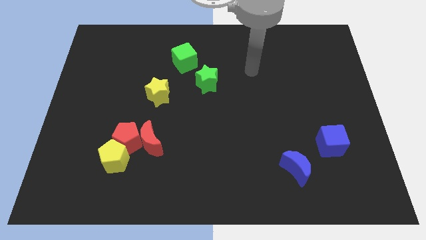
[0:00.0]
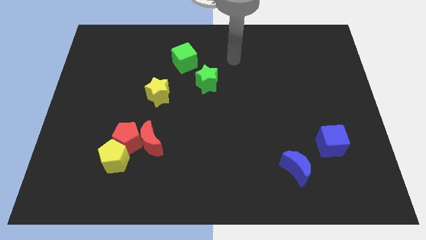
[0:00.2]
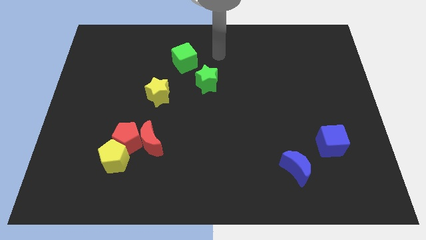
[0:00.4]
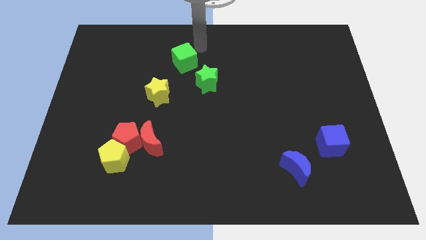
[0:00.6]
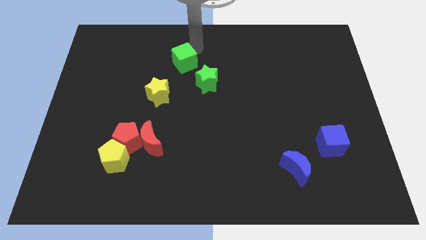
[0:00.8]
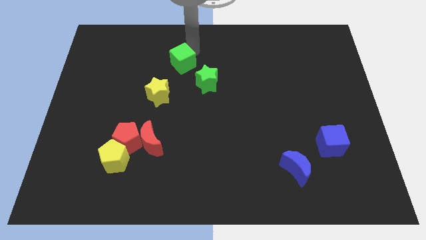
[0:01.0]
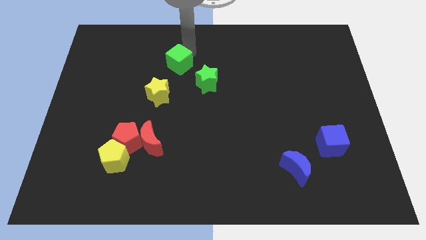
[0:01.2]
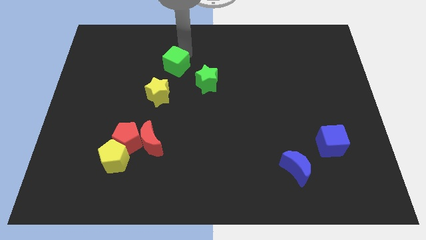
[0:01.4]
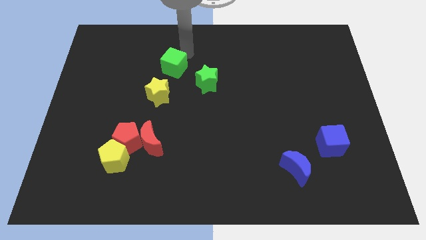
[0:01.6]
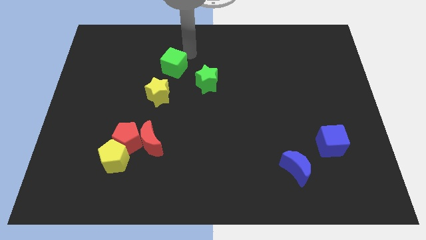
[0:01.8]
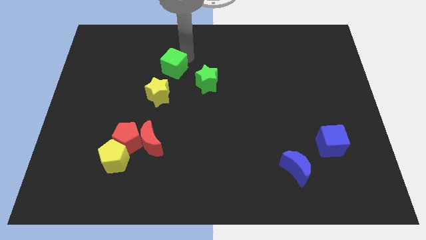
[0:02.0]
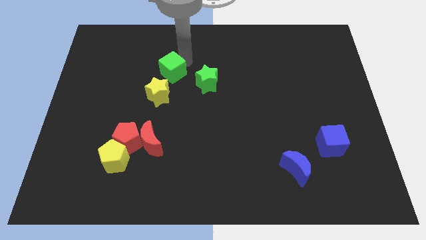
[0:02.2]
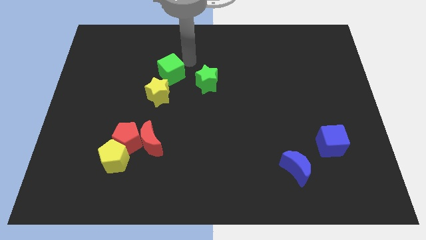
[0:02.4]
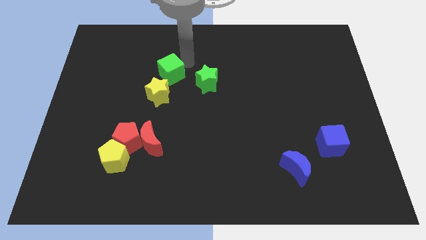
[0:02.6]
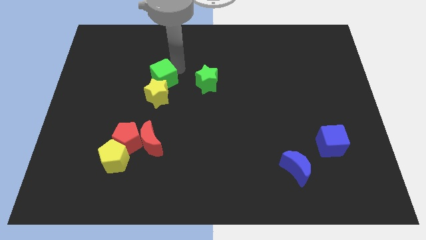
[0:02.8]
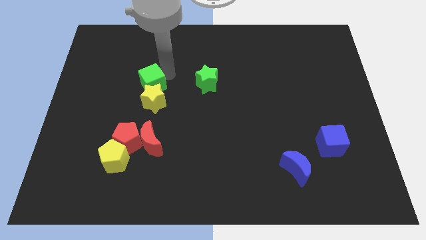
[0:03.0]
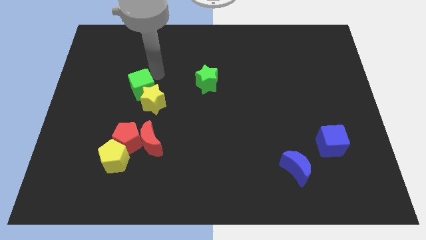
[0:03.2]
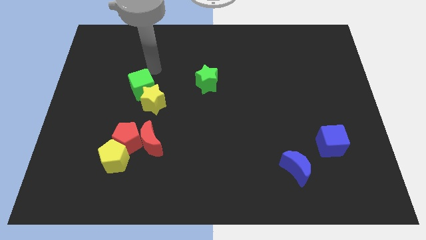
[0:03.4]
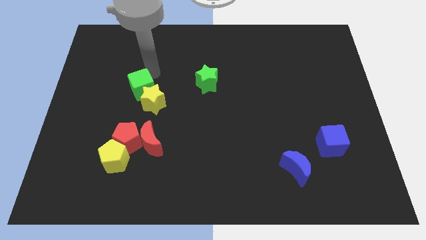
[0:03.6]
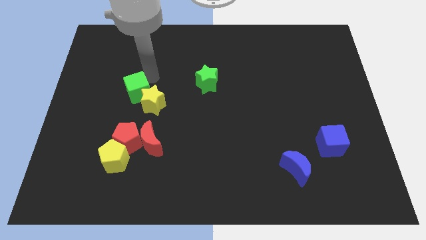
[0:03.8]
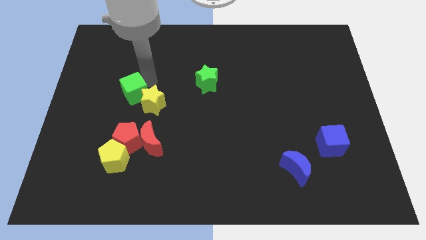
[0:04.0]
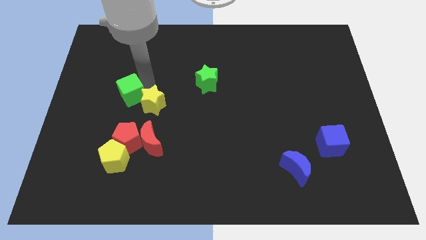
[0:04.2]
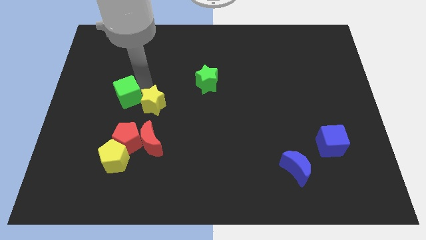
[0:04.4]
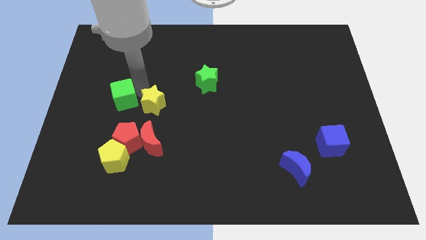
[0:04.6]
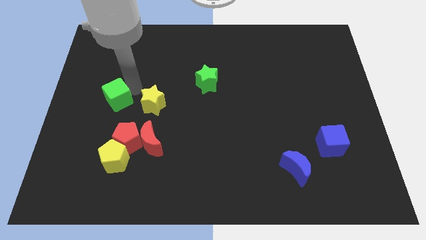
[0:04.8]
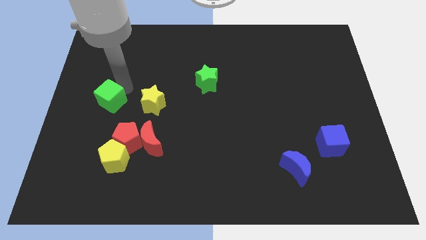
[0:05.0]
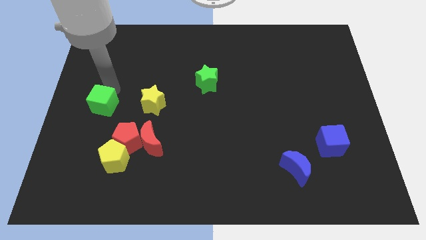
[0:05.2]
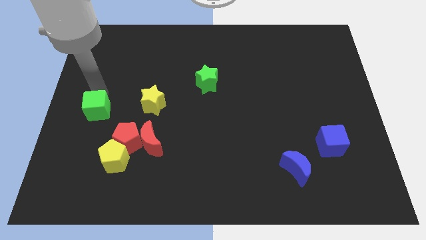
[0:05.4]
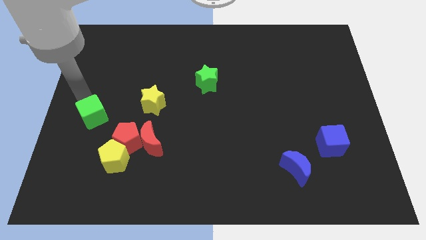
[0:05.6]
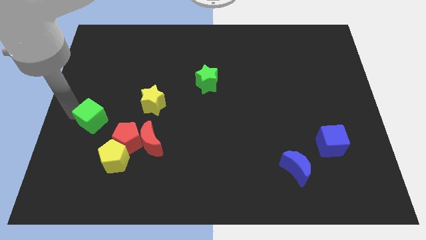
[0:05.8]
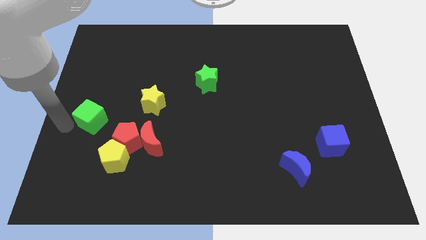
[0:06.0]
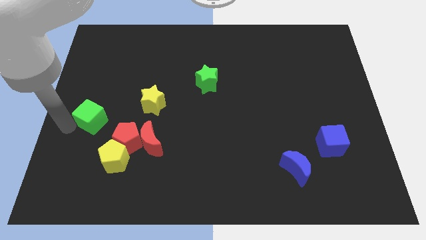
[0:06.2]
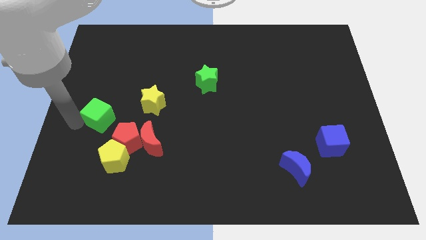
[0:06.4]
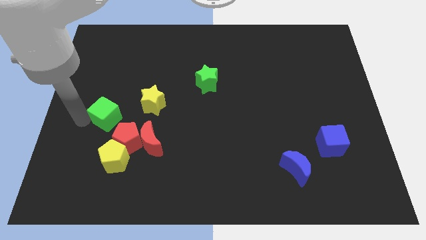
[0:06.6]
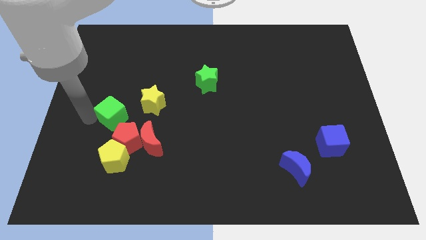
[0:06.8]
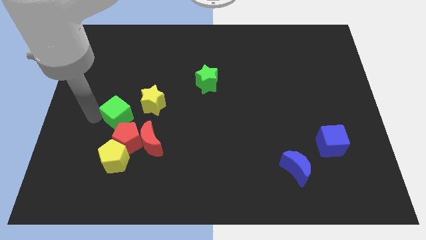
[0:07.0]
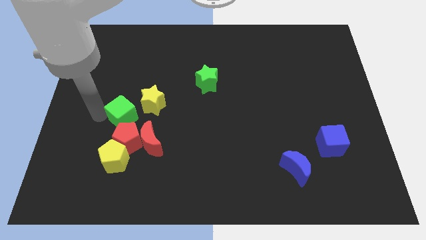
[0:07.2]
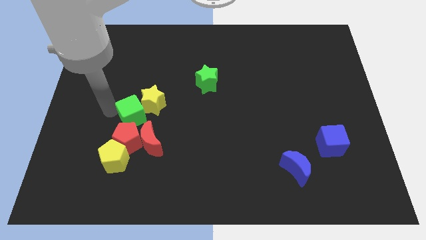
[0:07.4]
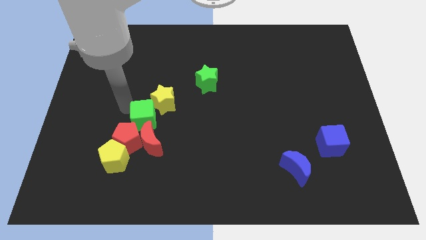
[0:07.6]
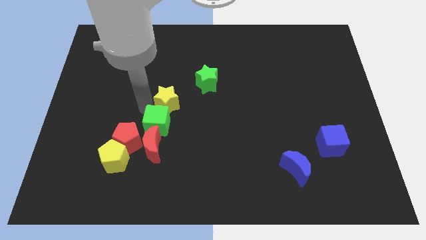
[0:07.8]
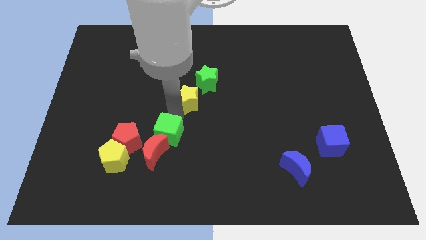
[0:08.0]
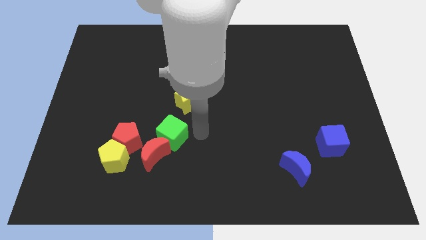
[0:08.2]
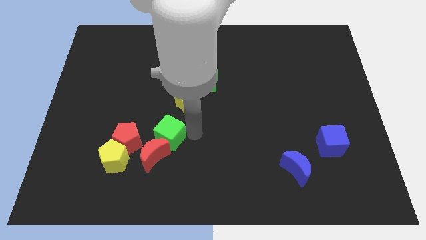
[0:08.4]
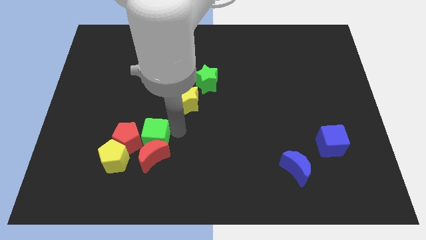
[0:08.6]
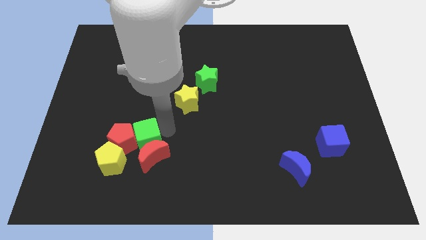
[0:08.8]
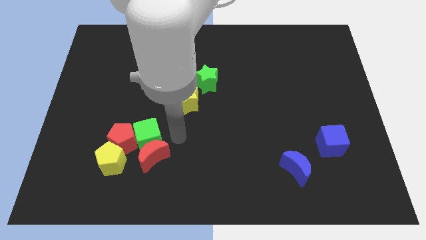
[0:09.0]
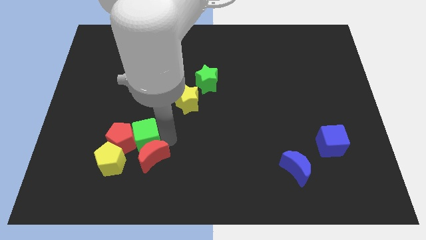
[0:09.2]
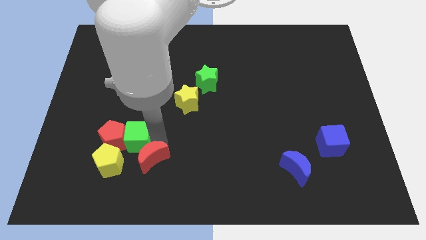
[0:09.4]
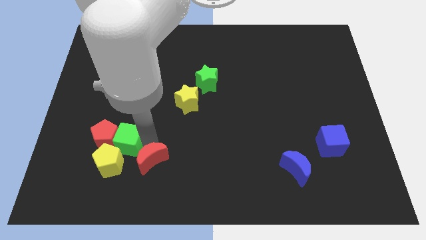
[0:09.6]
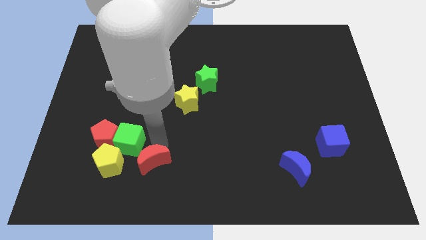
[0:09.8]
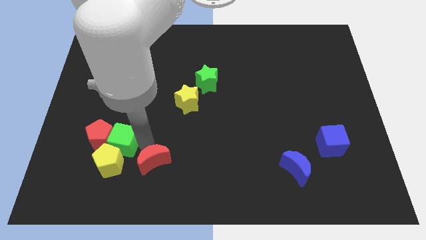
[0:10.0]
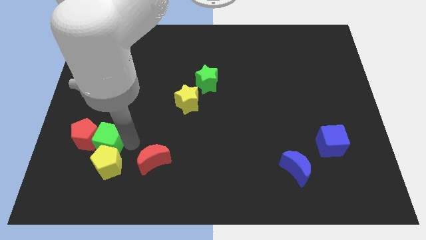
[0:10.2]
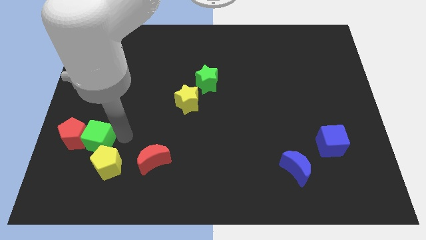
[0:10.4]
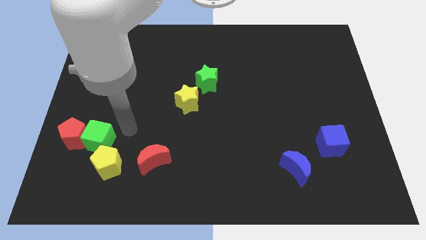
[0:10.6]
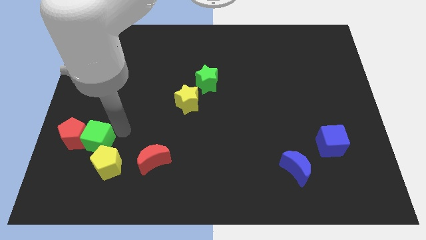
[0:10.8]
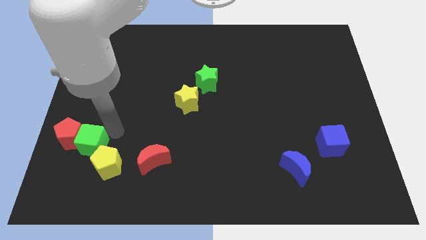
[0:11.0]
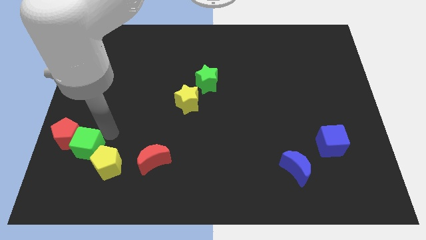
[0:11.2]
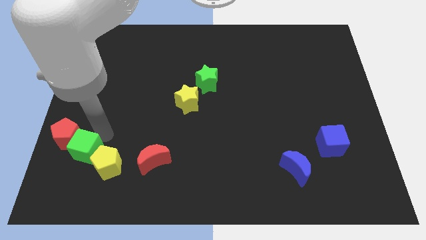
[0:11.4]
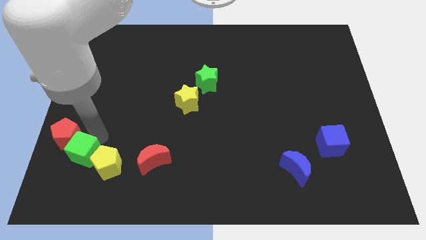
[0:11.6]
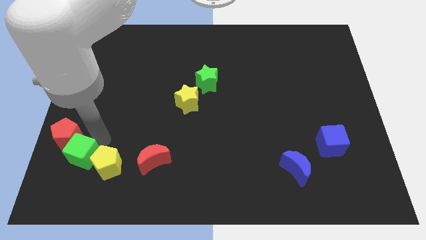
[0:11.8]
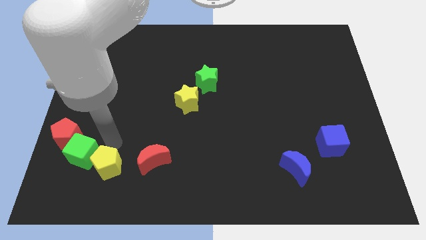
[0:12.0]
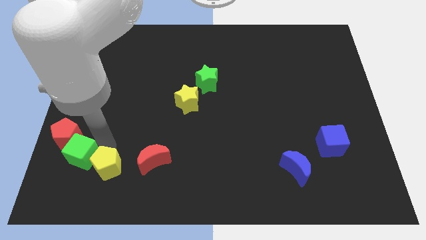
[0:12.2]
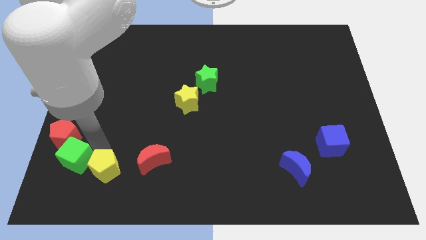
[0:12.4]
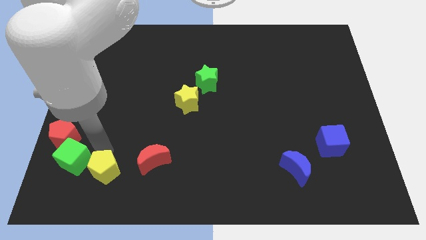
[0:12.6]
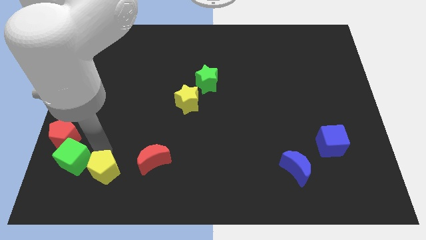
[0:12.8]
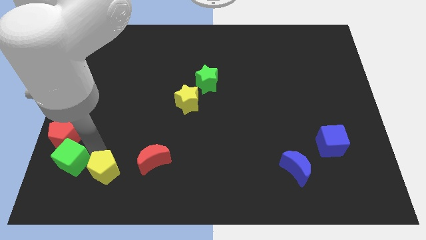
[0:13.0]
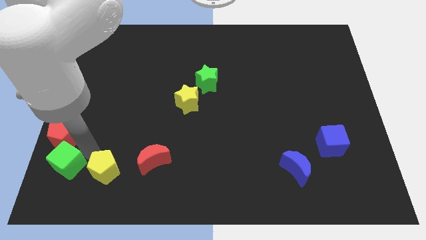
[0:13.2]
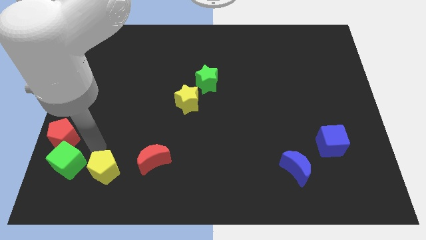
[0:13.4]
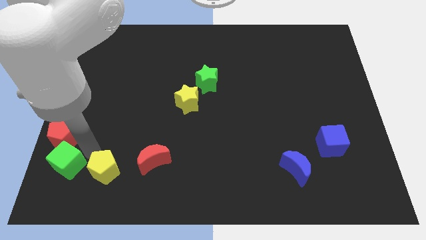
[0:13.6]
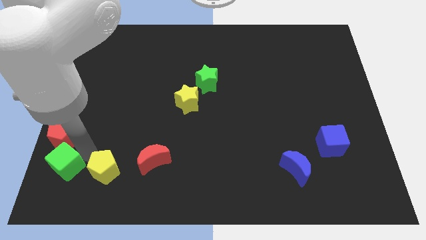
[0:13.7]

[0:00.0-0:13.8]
slide the green cube to the bottom left corner
